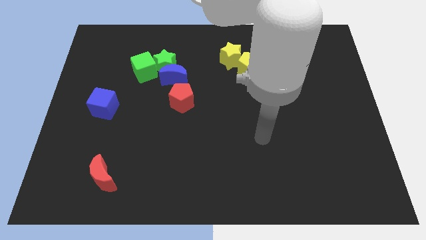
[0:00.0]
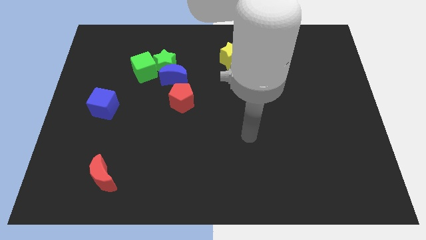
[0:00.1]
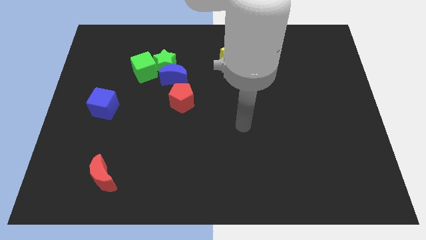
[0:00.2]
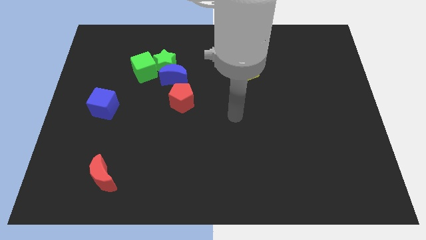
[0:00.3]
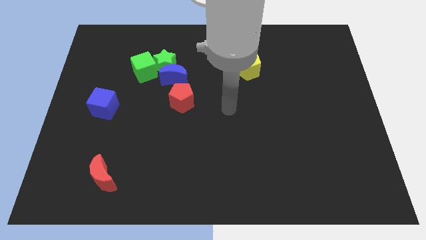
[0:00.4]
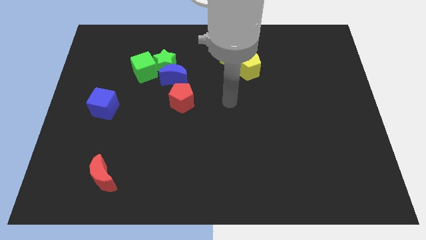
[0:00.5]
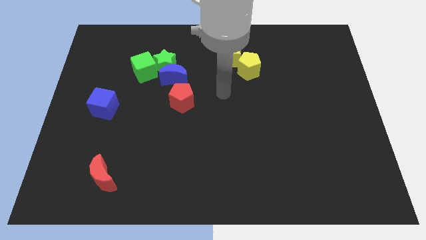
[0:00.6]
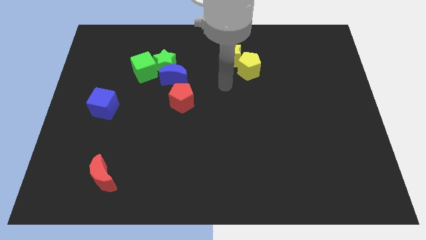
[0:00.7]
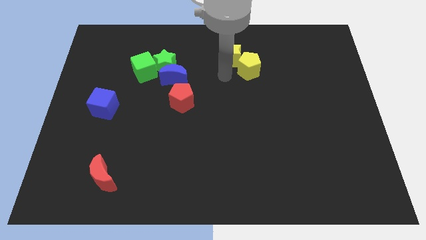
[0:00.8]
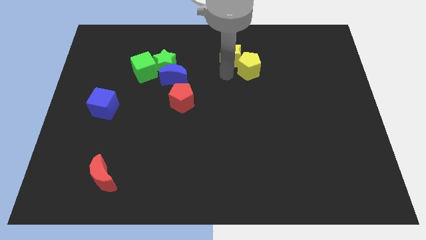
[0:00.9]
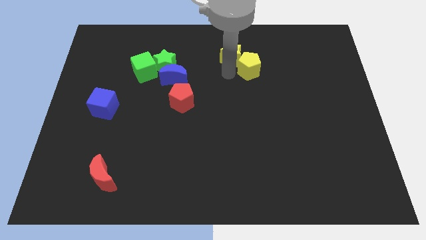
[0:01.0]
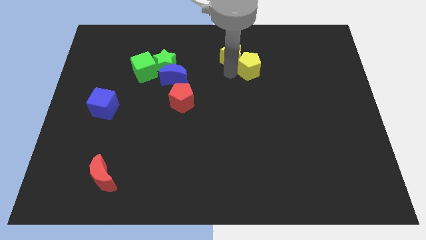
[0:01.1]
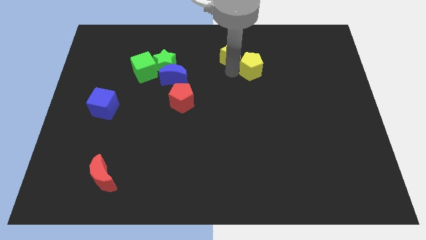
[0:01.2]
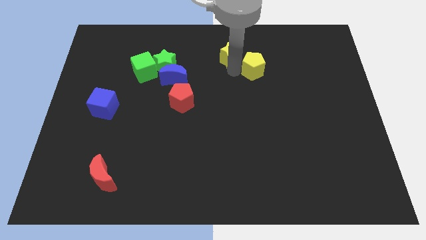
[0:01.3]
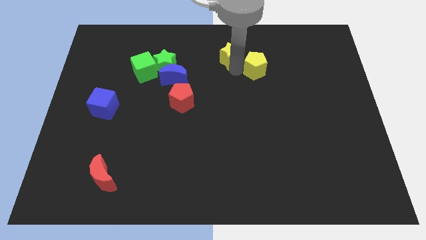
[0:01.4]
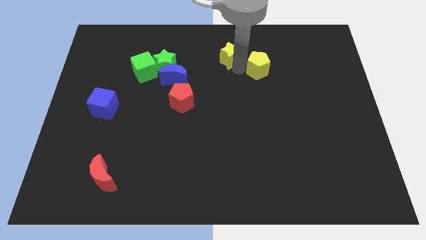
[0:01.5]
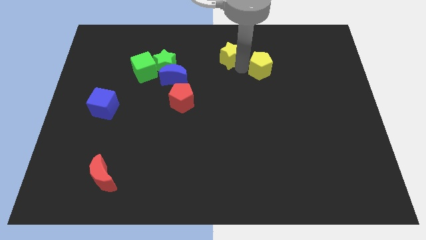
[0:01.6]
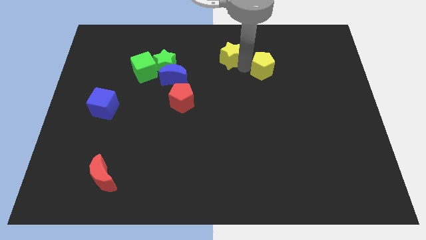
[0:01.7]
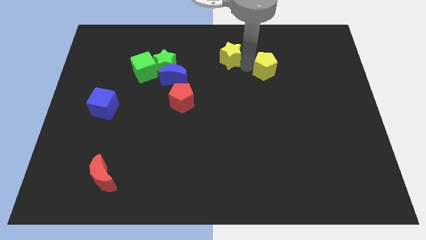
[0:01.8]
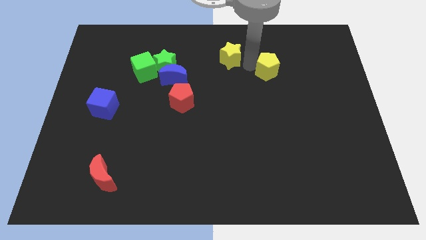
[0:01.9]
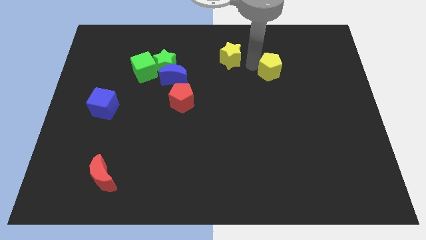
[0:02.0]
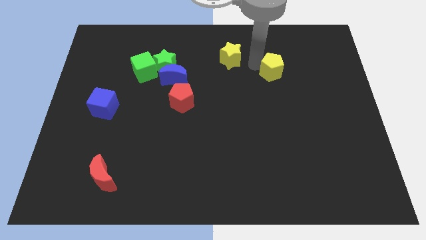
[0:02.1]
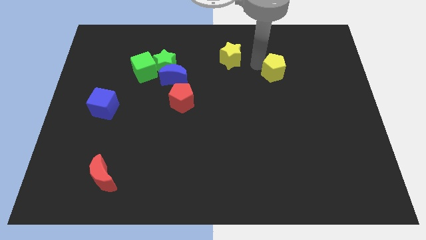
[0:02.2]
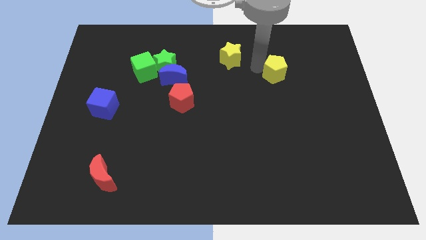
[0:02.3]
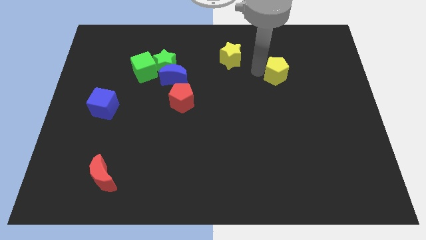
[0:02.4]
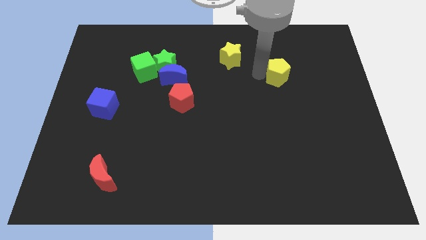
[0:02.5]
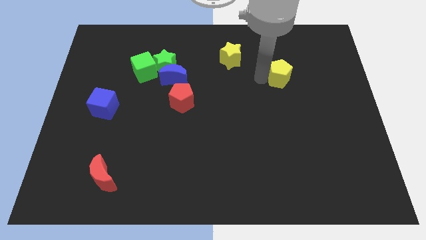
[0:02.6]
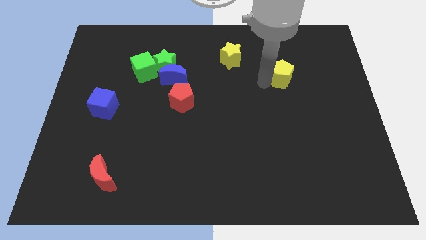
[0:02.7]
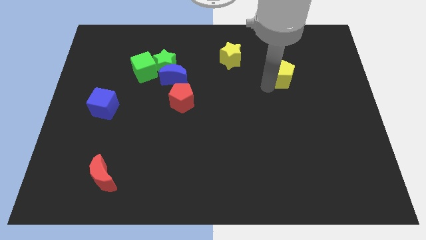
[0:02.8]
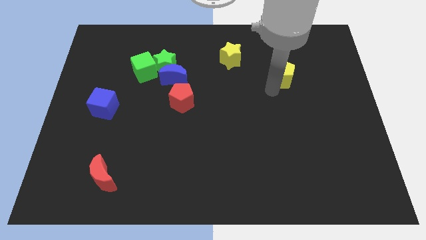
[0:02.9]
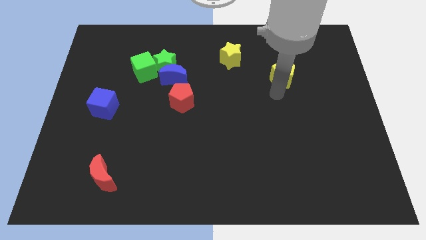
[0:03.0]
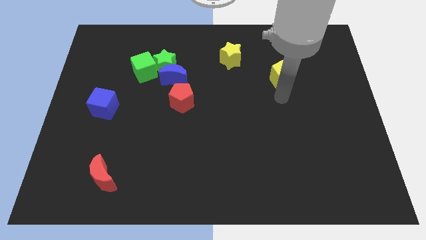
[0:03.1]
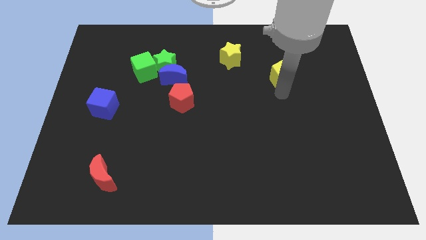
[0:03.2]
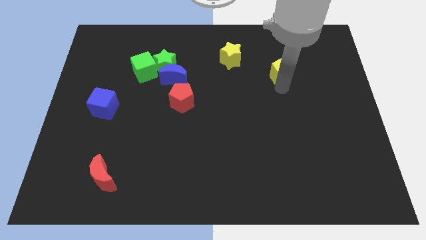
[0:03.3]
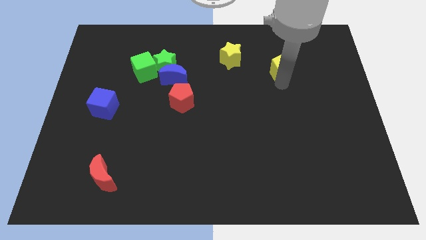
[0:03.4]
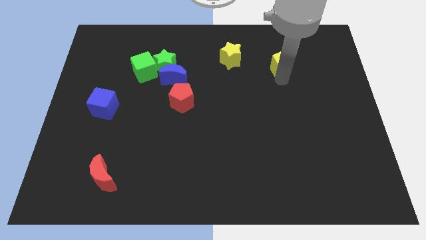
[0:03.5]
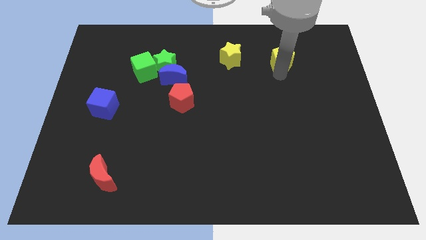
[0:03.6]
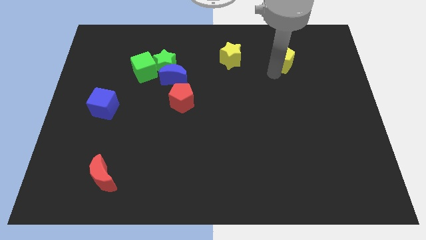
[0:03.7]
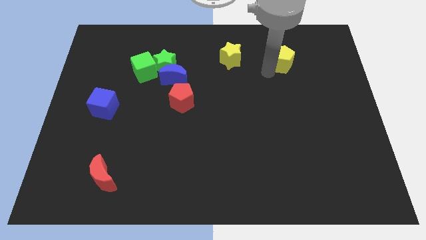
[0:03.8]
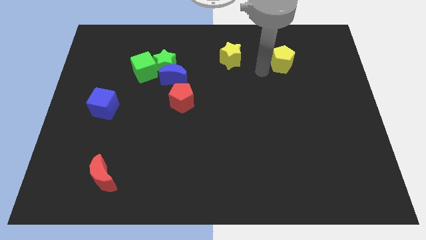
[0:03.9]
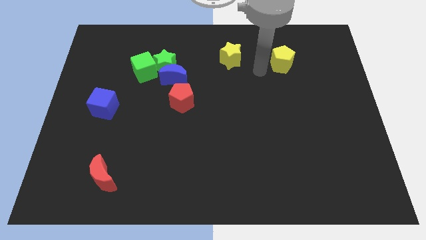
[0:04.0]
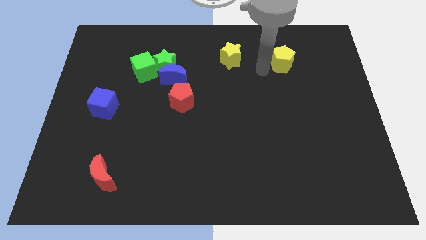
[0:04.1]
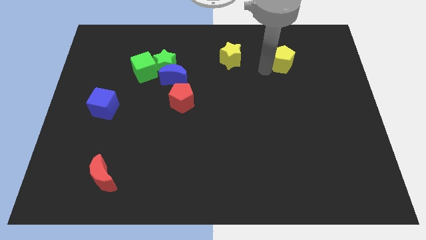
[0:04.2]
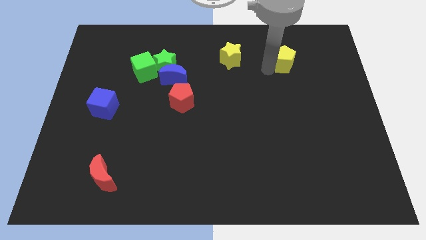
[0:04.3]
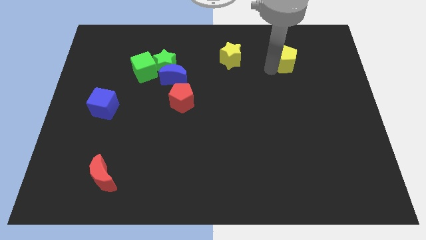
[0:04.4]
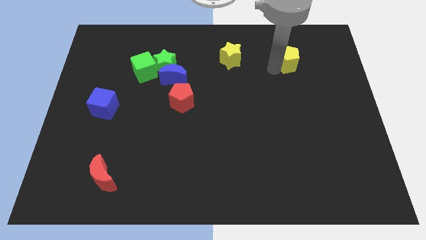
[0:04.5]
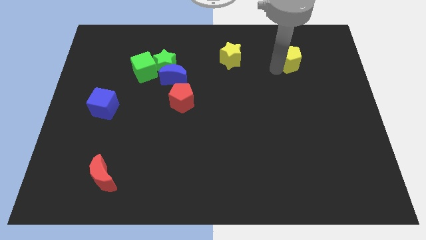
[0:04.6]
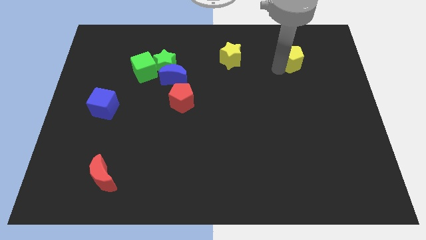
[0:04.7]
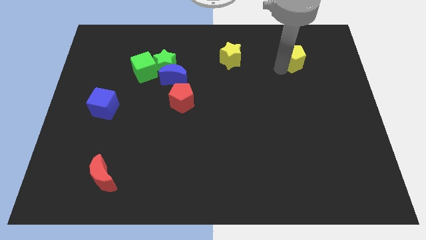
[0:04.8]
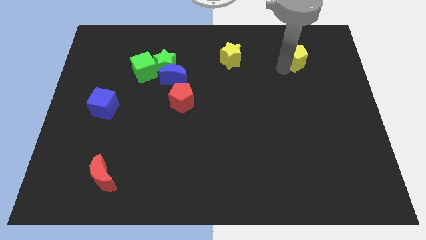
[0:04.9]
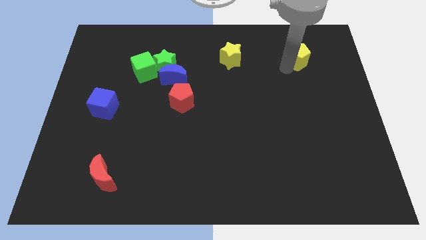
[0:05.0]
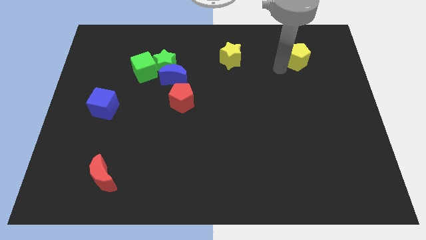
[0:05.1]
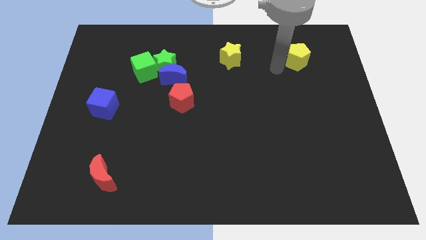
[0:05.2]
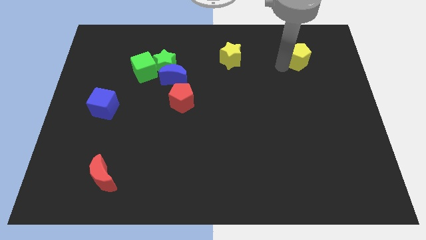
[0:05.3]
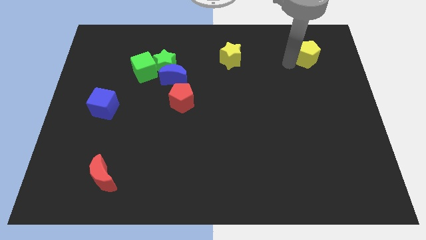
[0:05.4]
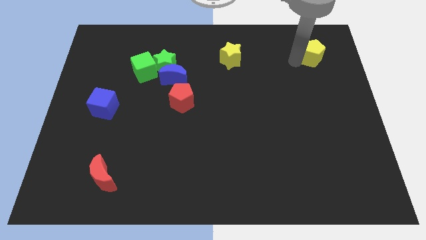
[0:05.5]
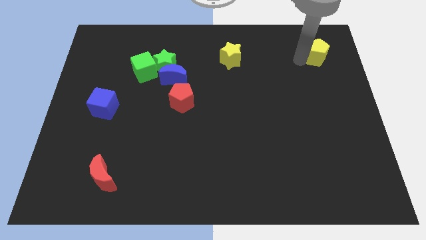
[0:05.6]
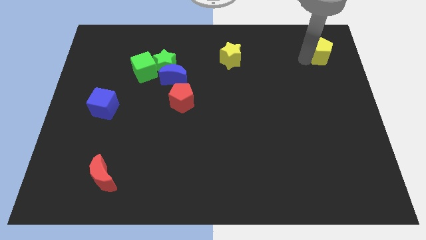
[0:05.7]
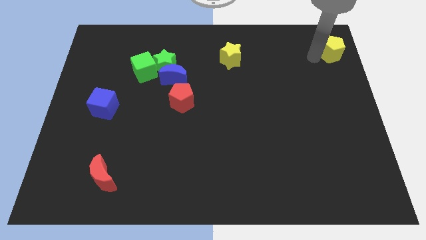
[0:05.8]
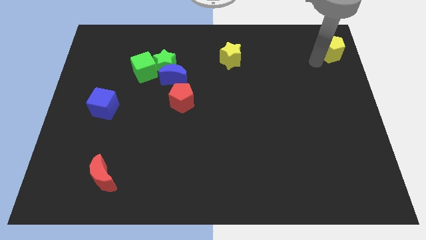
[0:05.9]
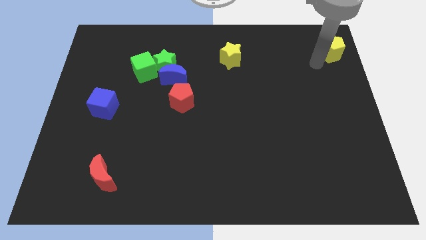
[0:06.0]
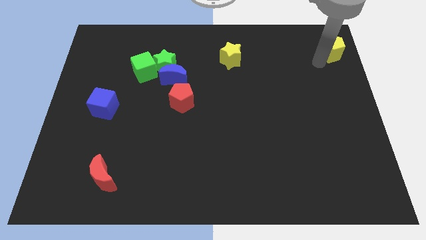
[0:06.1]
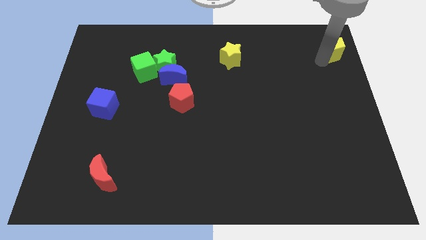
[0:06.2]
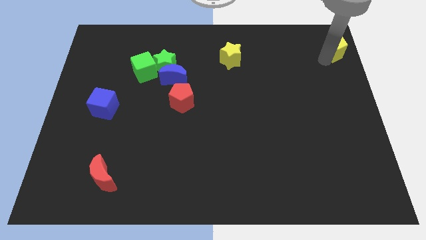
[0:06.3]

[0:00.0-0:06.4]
slide the yellow pentagon to the top right
